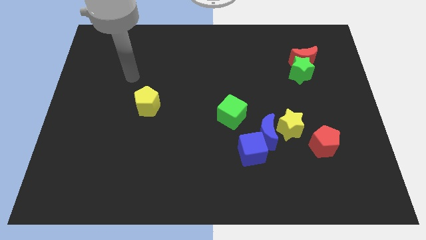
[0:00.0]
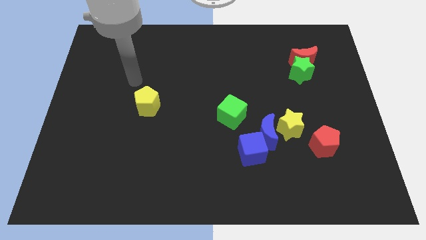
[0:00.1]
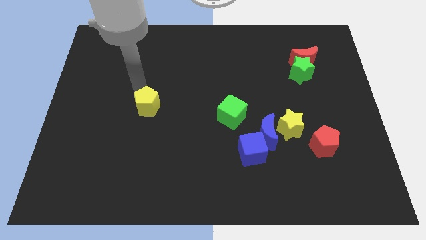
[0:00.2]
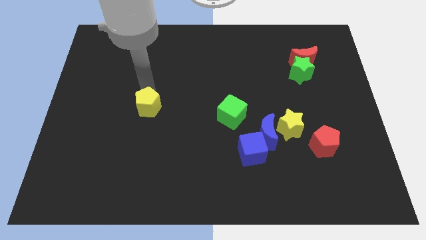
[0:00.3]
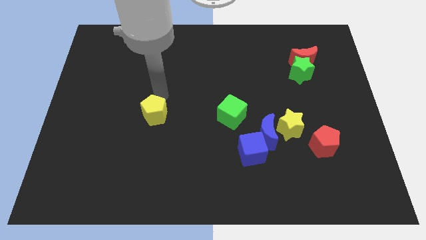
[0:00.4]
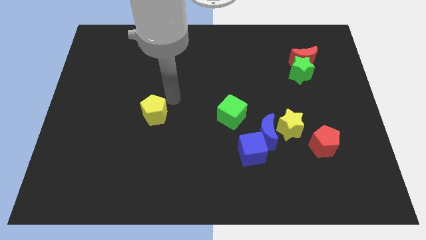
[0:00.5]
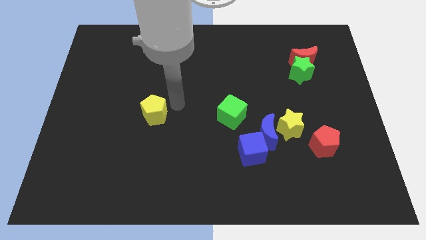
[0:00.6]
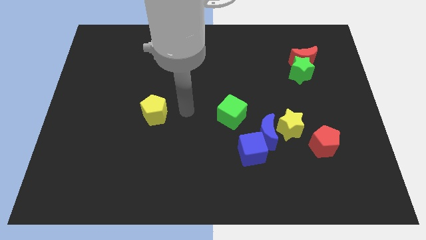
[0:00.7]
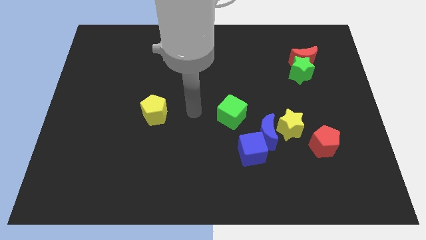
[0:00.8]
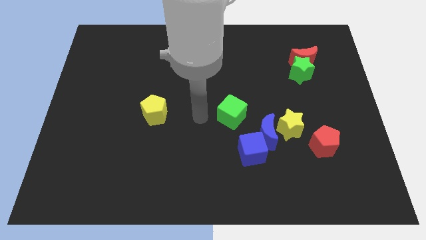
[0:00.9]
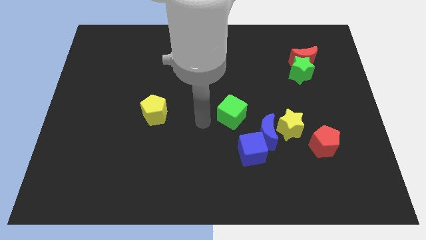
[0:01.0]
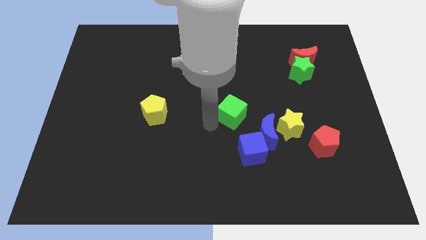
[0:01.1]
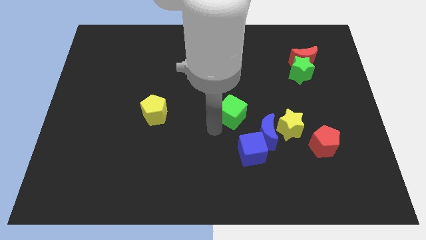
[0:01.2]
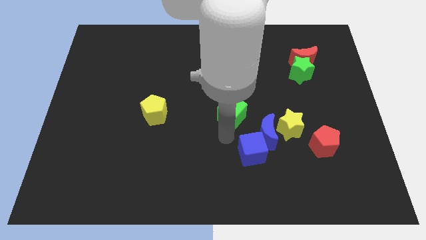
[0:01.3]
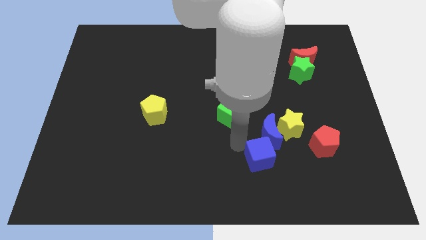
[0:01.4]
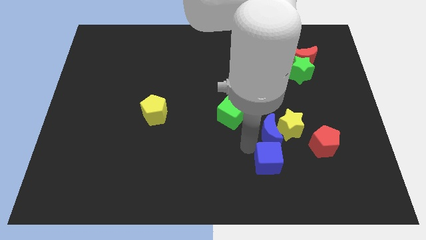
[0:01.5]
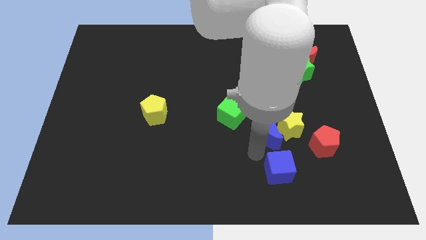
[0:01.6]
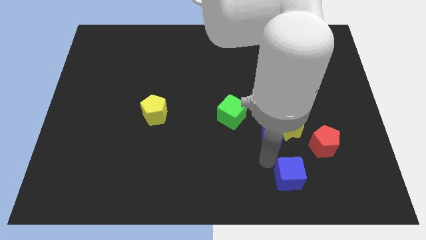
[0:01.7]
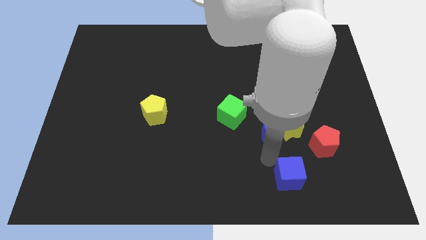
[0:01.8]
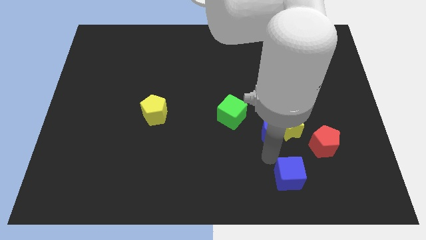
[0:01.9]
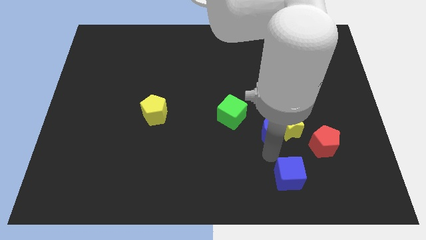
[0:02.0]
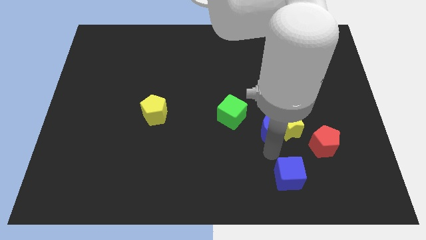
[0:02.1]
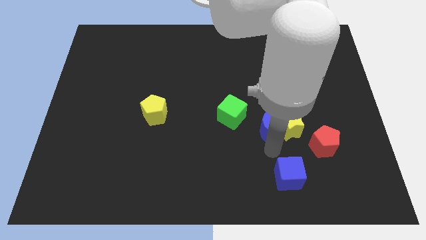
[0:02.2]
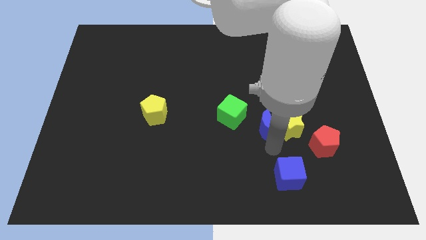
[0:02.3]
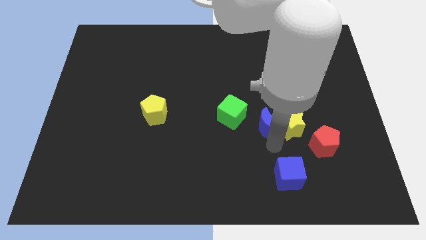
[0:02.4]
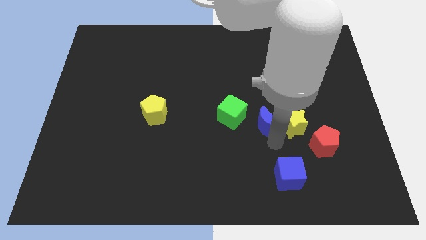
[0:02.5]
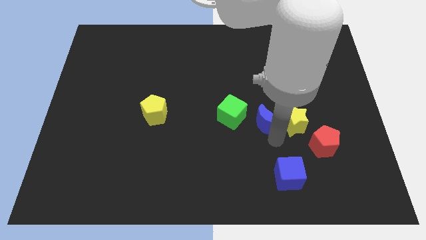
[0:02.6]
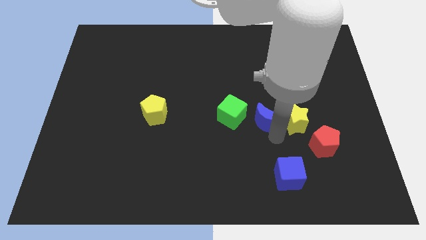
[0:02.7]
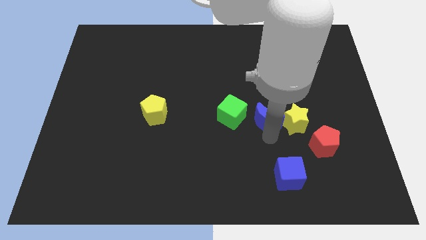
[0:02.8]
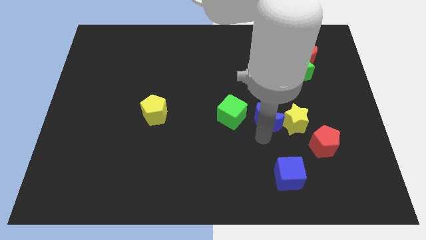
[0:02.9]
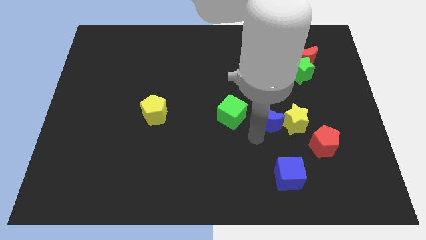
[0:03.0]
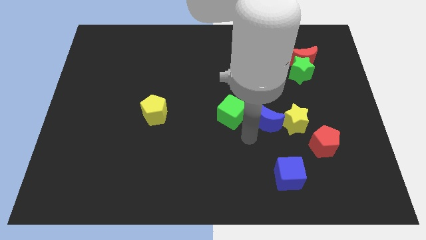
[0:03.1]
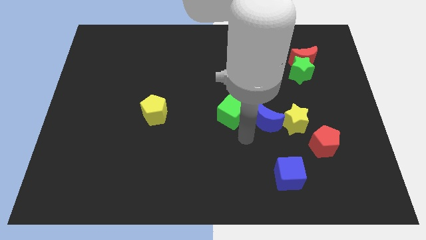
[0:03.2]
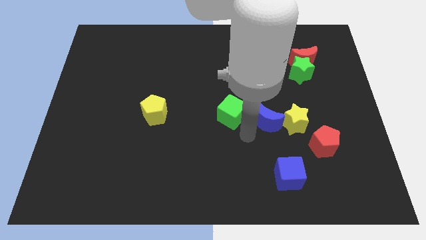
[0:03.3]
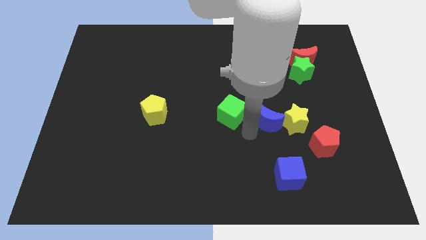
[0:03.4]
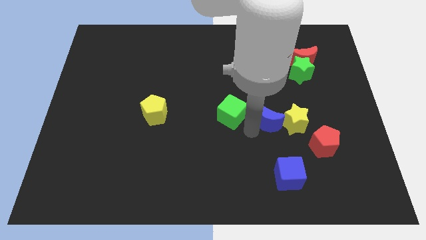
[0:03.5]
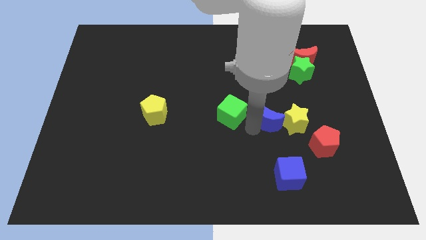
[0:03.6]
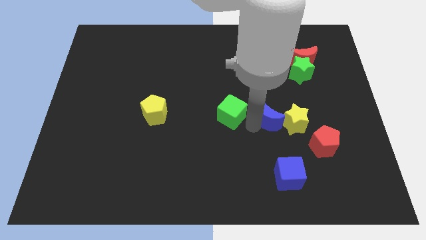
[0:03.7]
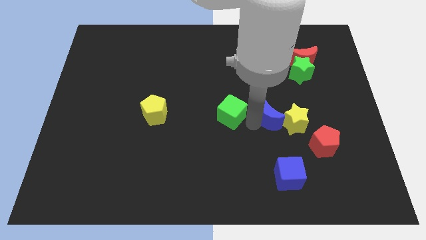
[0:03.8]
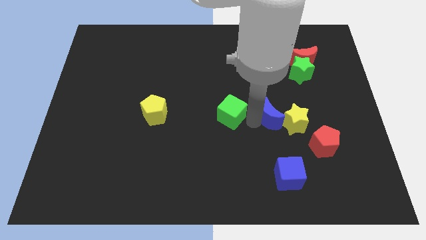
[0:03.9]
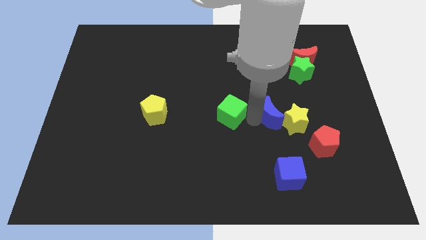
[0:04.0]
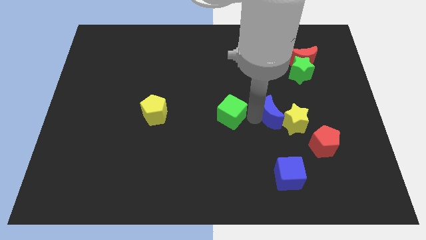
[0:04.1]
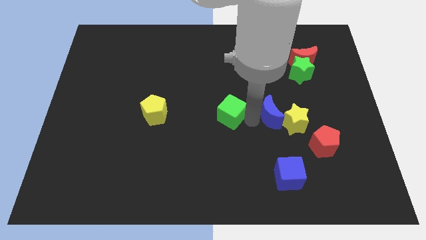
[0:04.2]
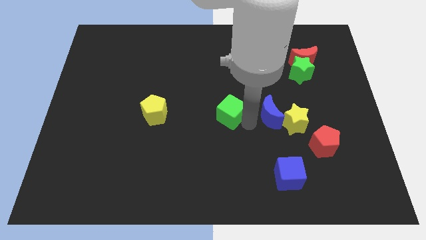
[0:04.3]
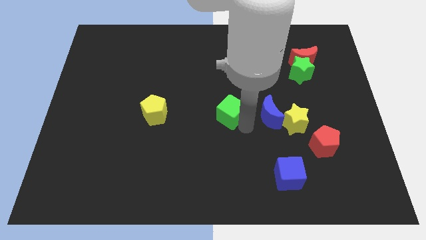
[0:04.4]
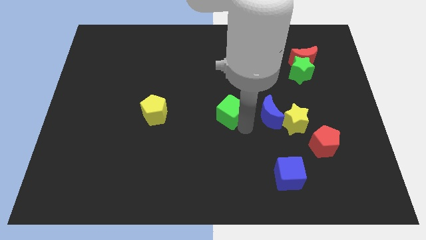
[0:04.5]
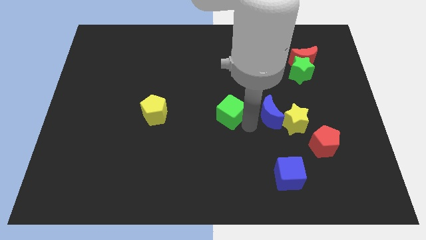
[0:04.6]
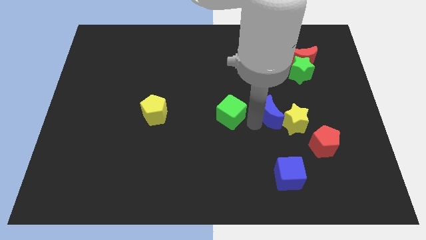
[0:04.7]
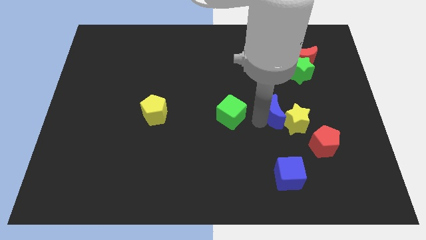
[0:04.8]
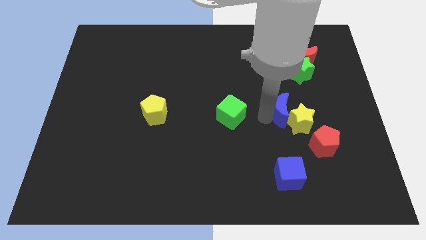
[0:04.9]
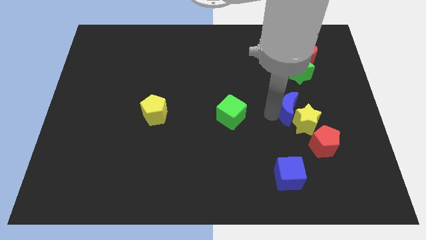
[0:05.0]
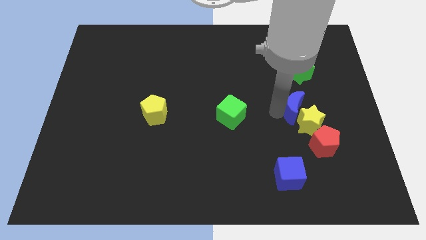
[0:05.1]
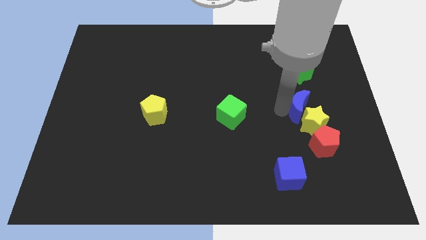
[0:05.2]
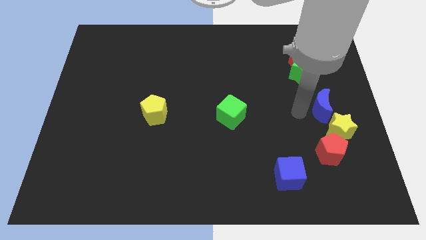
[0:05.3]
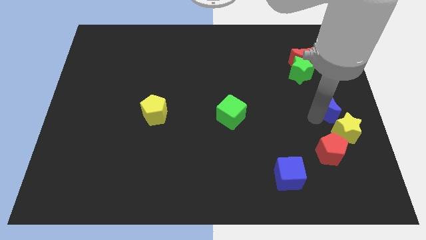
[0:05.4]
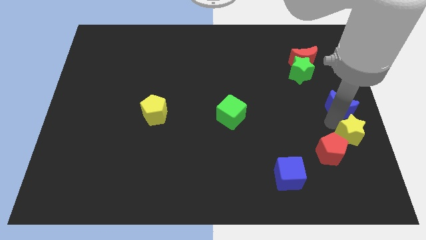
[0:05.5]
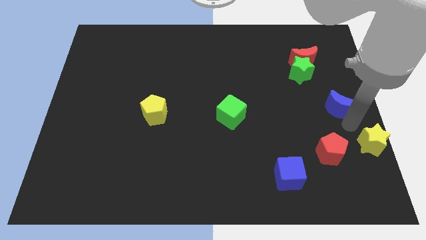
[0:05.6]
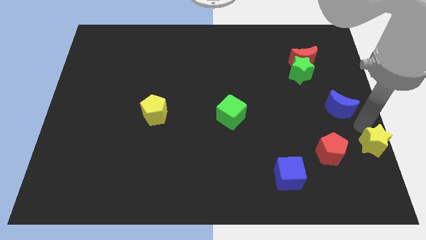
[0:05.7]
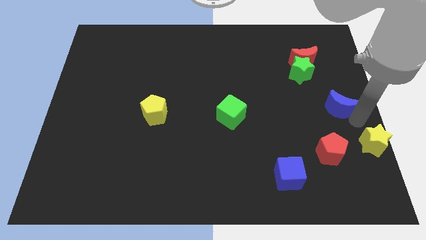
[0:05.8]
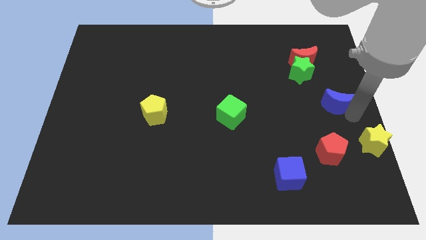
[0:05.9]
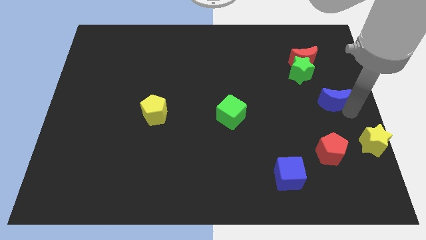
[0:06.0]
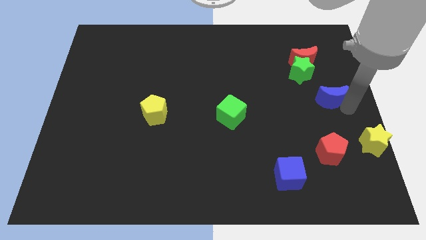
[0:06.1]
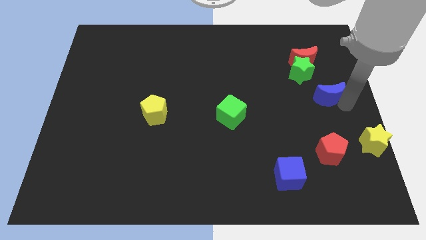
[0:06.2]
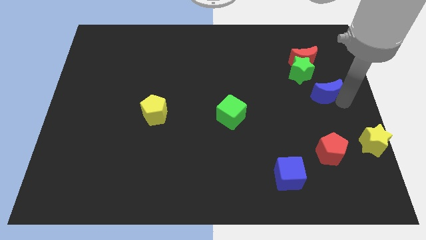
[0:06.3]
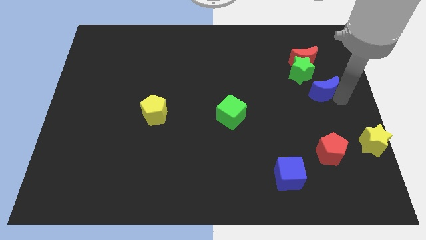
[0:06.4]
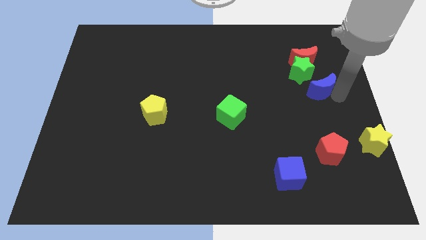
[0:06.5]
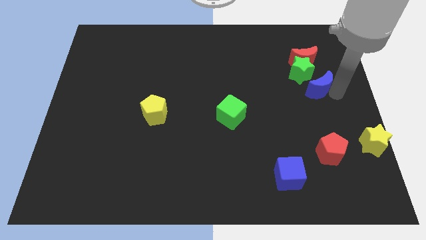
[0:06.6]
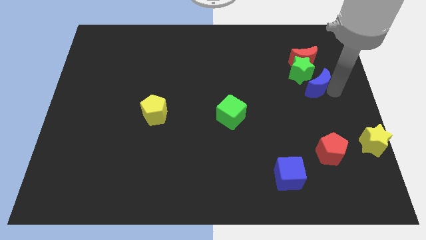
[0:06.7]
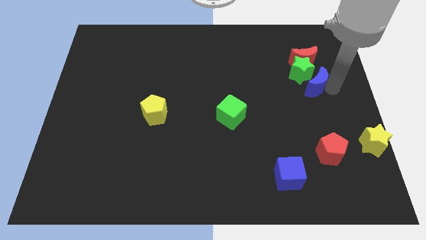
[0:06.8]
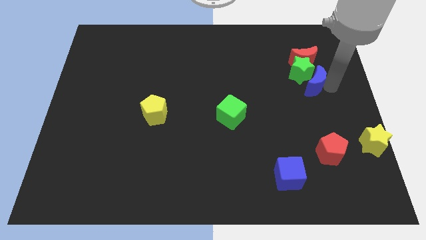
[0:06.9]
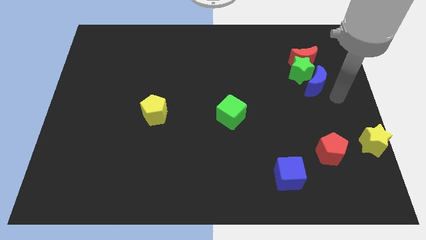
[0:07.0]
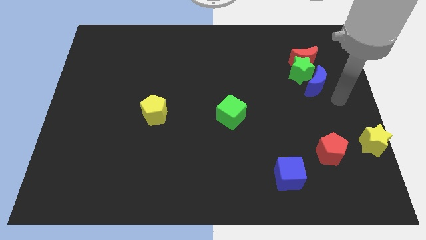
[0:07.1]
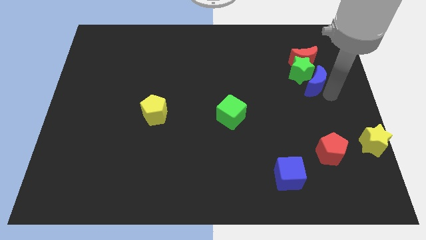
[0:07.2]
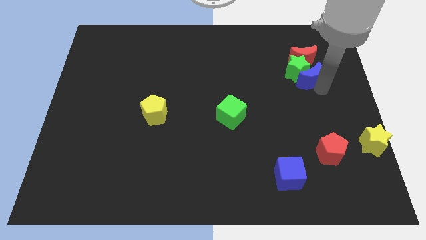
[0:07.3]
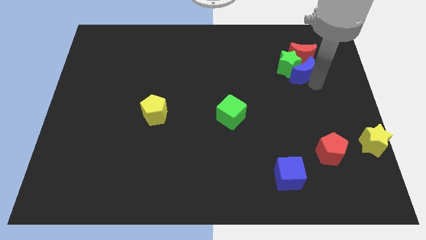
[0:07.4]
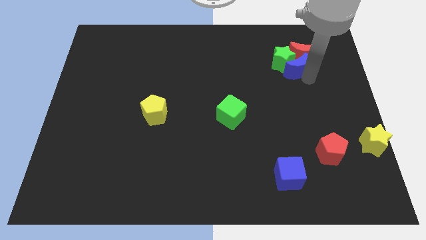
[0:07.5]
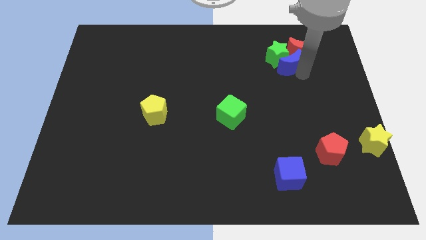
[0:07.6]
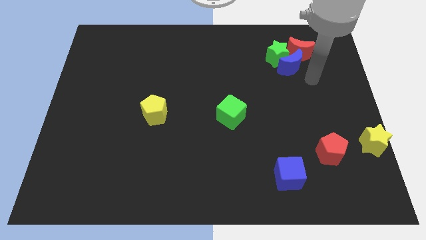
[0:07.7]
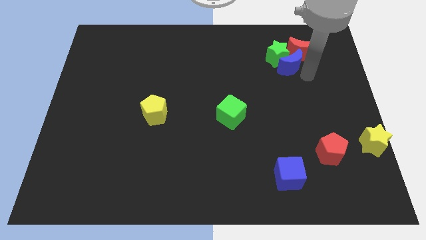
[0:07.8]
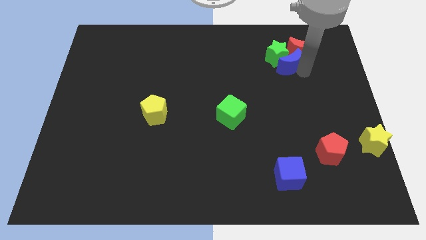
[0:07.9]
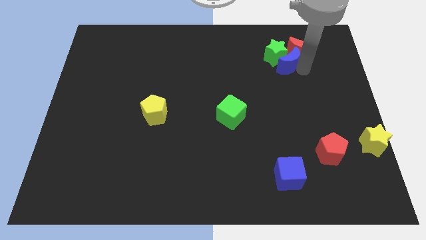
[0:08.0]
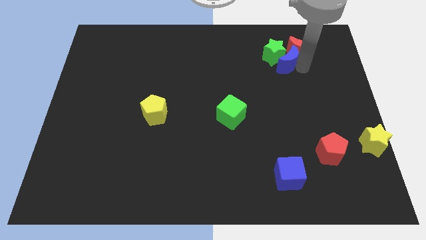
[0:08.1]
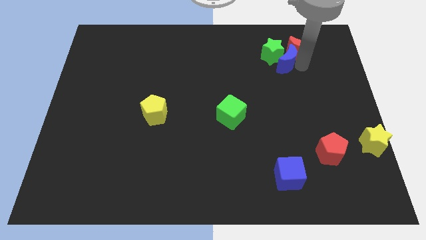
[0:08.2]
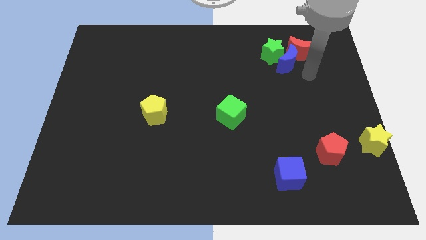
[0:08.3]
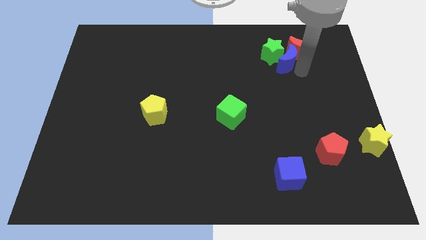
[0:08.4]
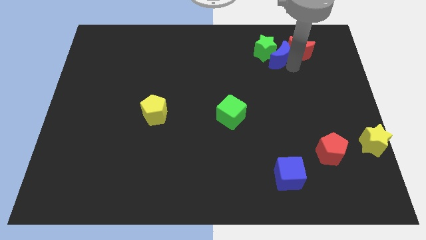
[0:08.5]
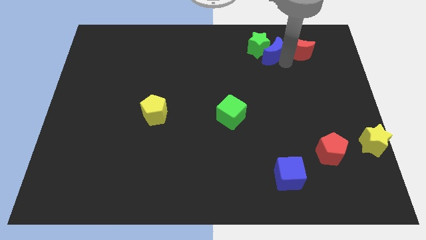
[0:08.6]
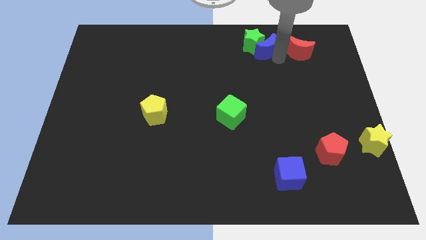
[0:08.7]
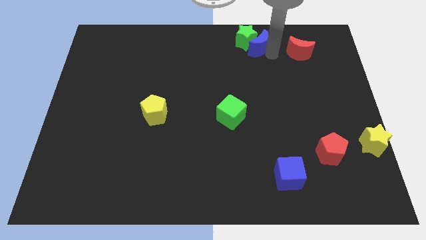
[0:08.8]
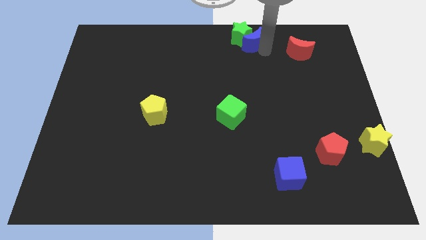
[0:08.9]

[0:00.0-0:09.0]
put the blue moon to the top side
